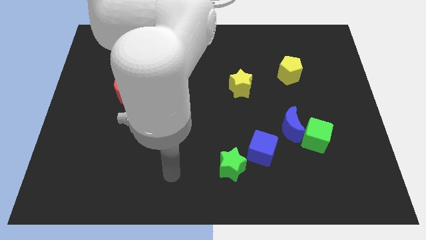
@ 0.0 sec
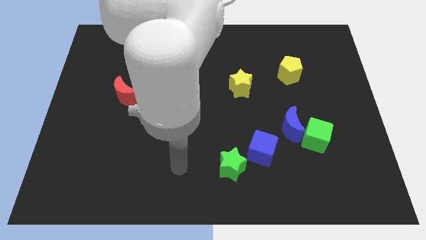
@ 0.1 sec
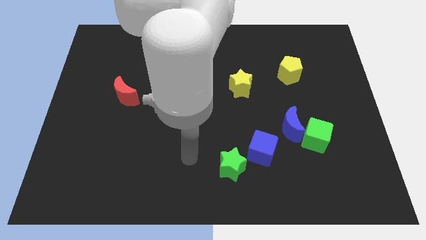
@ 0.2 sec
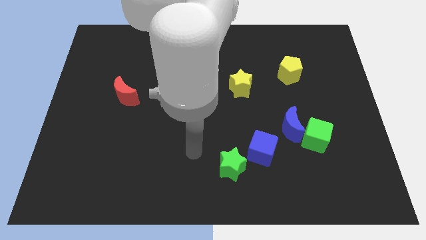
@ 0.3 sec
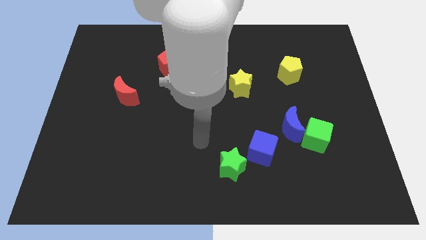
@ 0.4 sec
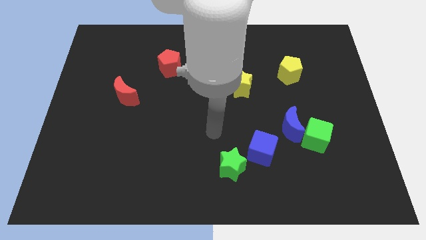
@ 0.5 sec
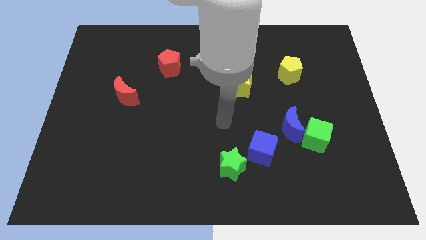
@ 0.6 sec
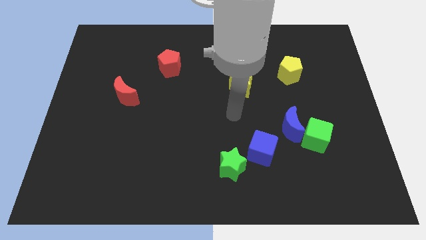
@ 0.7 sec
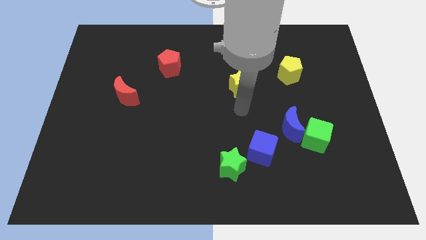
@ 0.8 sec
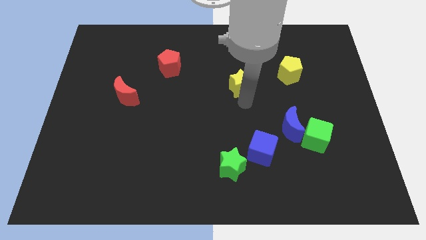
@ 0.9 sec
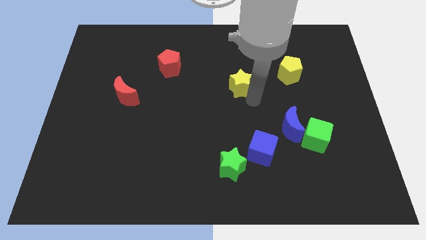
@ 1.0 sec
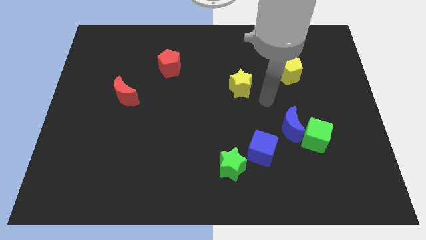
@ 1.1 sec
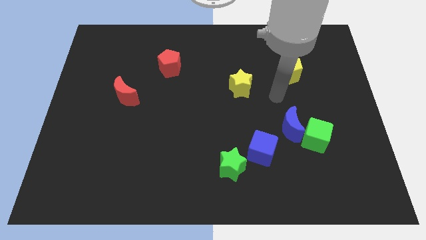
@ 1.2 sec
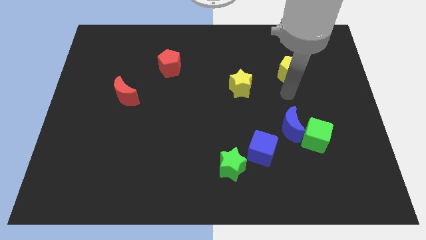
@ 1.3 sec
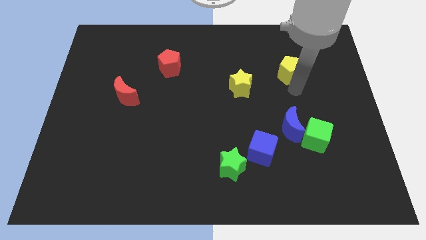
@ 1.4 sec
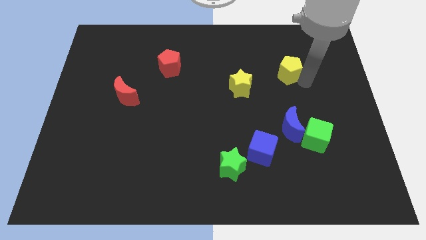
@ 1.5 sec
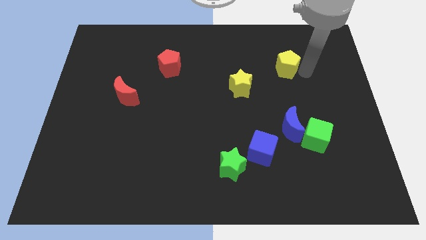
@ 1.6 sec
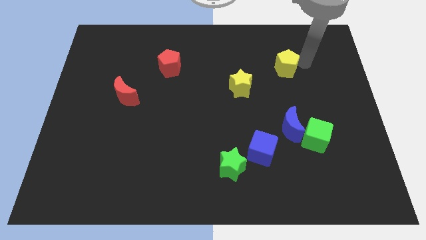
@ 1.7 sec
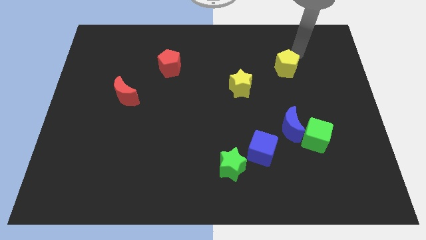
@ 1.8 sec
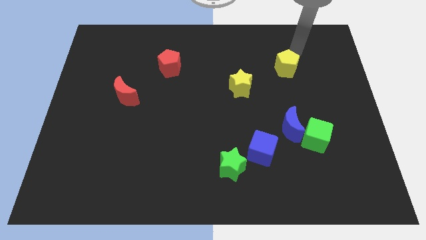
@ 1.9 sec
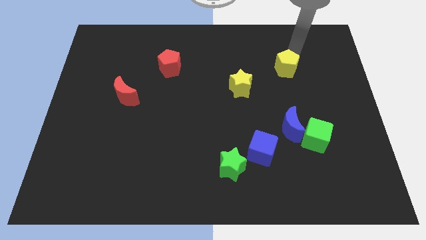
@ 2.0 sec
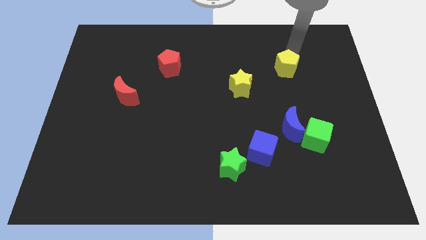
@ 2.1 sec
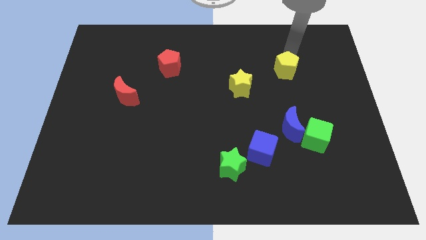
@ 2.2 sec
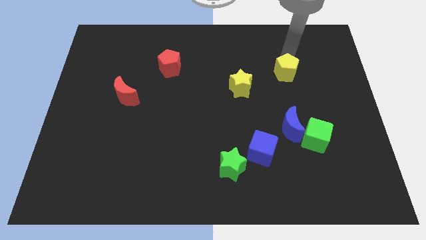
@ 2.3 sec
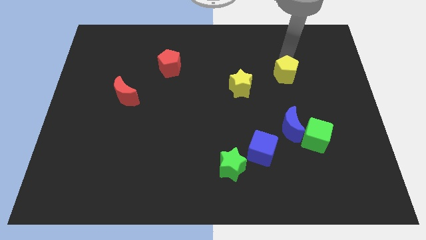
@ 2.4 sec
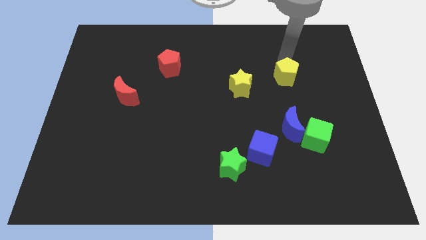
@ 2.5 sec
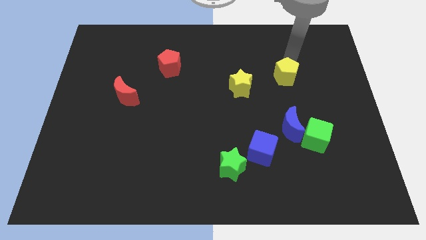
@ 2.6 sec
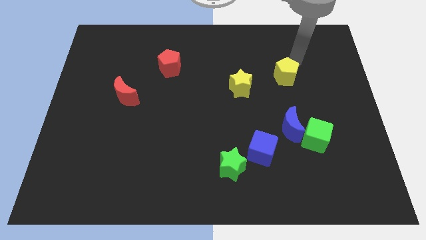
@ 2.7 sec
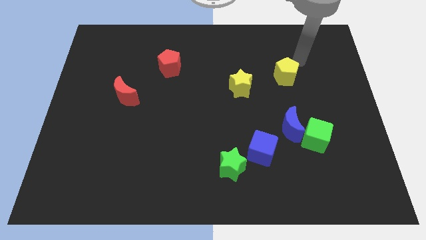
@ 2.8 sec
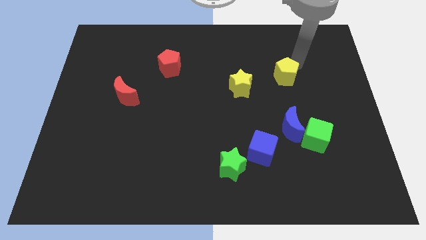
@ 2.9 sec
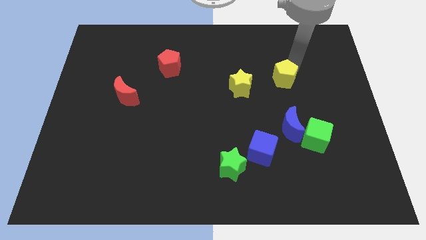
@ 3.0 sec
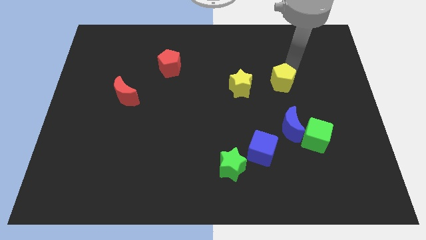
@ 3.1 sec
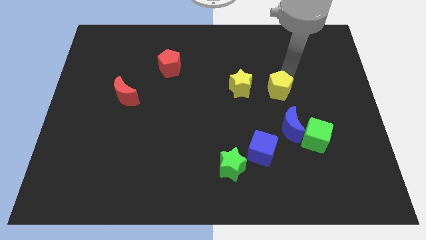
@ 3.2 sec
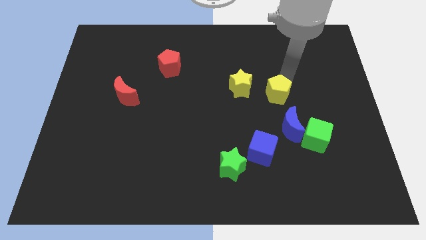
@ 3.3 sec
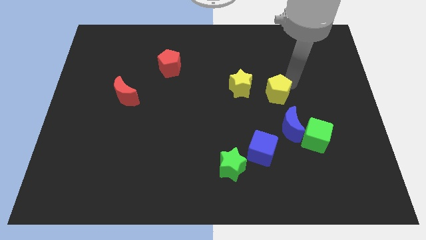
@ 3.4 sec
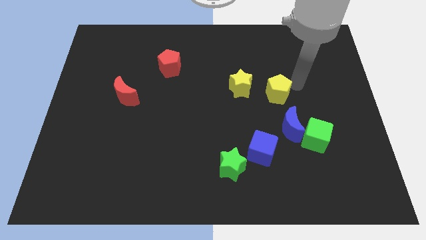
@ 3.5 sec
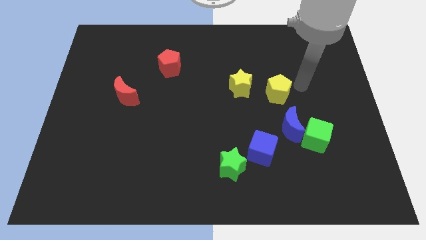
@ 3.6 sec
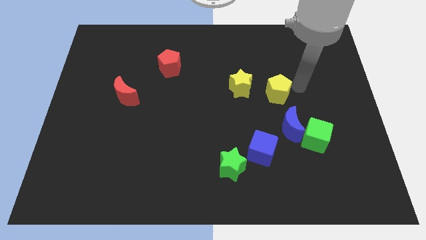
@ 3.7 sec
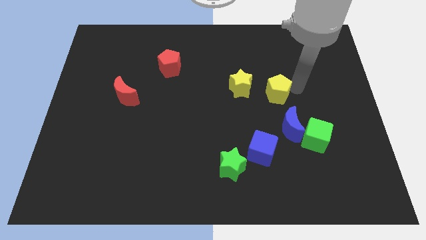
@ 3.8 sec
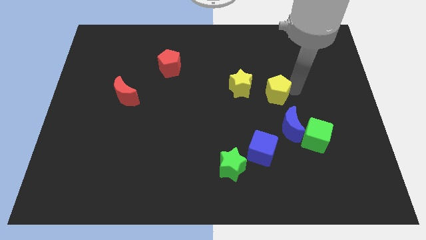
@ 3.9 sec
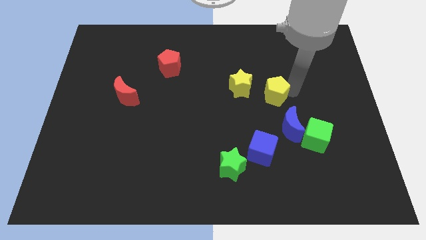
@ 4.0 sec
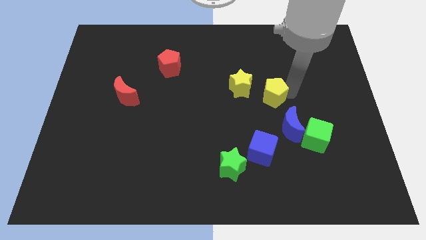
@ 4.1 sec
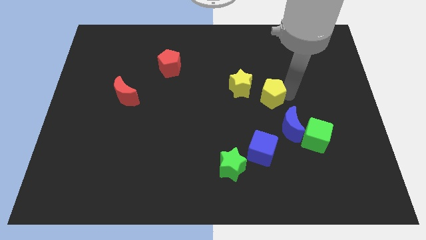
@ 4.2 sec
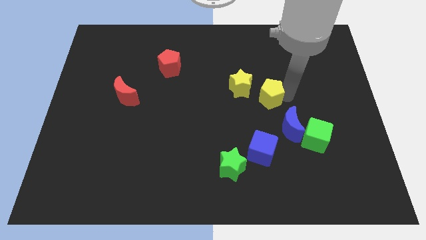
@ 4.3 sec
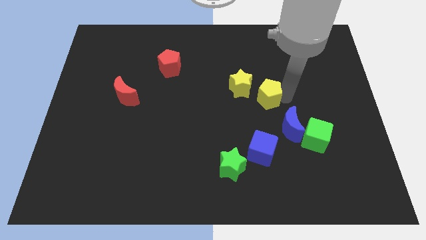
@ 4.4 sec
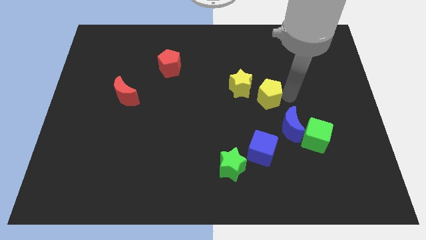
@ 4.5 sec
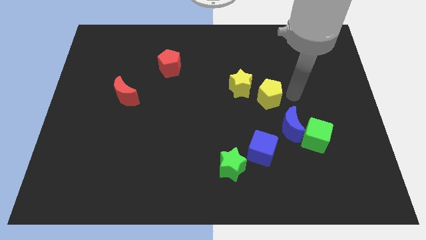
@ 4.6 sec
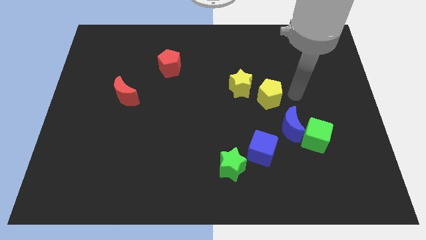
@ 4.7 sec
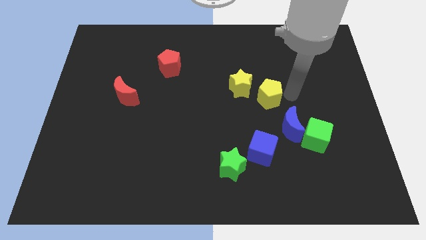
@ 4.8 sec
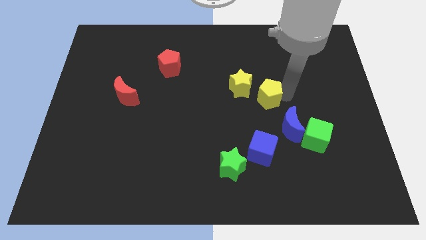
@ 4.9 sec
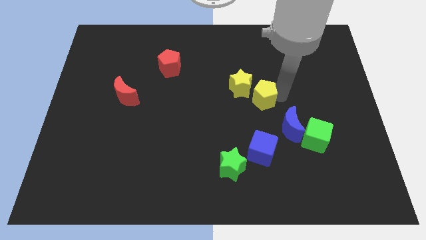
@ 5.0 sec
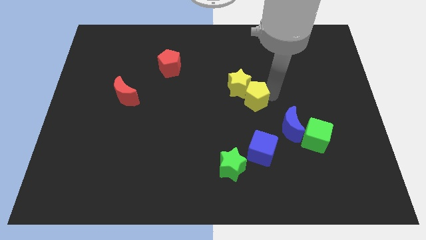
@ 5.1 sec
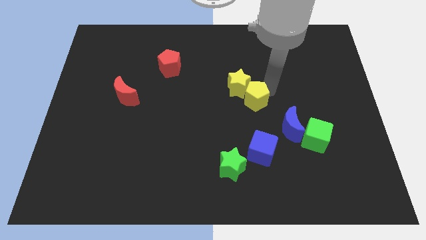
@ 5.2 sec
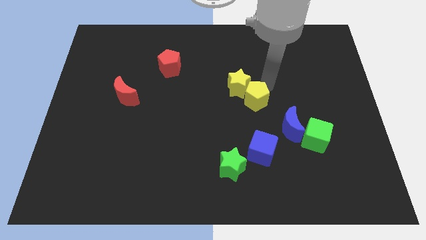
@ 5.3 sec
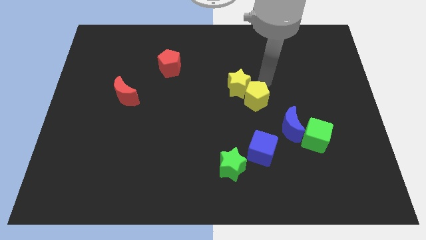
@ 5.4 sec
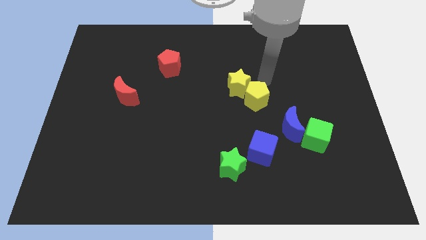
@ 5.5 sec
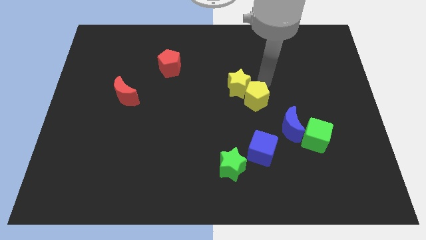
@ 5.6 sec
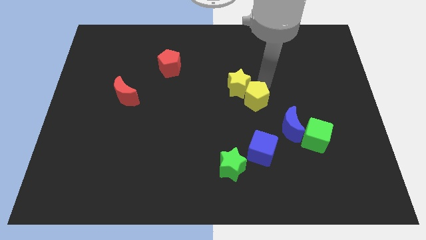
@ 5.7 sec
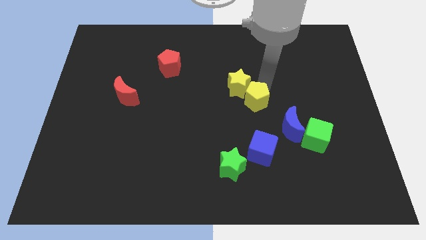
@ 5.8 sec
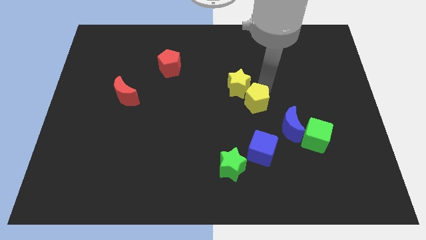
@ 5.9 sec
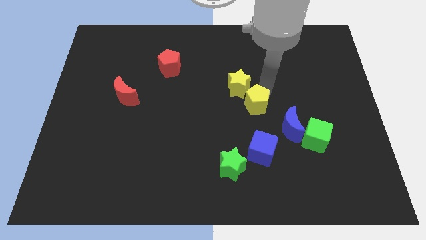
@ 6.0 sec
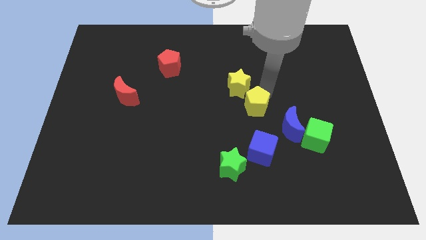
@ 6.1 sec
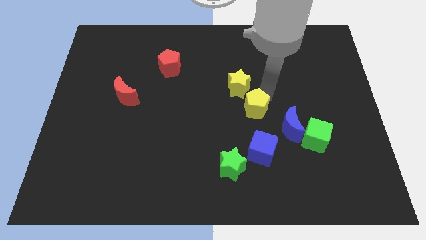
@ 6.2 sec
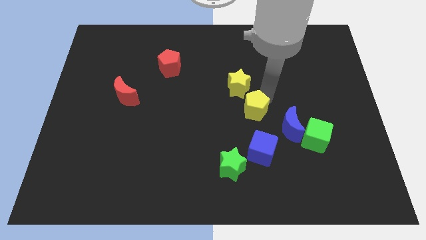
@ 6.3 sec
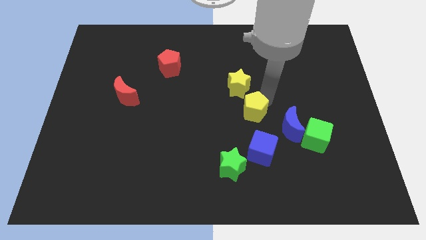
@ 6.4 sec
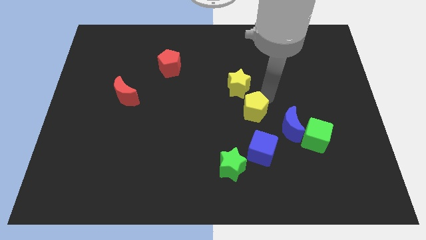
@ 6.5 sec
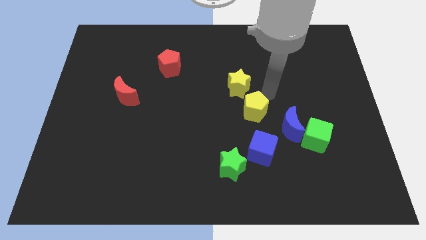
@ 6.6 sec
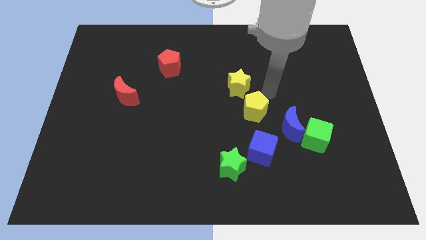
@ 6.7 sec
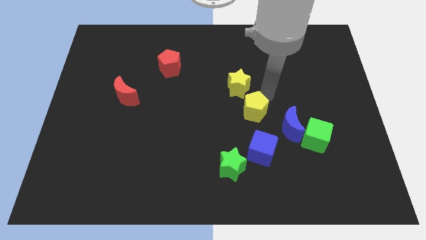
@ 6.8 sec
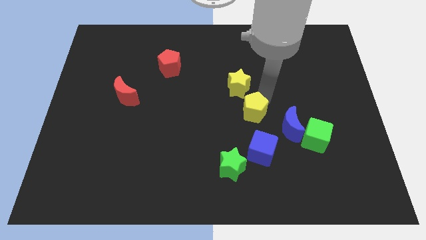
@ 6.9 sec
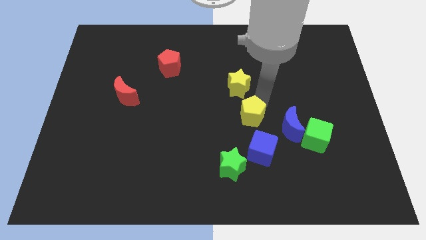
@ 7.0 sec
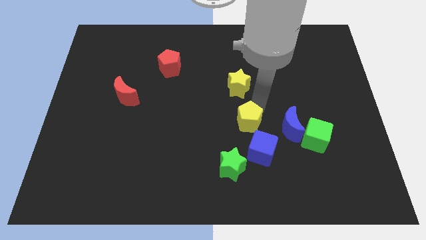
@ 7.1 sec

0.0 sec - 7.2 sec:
slide the yellow pentagon diagonally up and to the left of the blue cube
